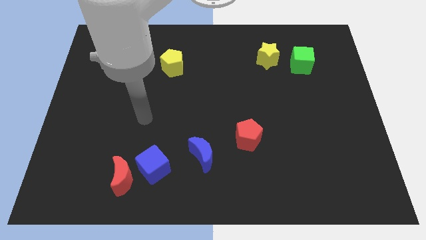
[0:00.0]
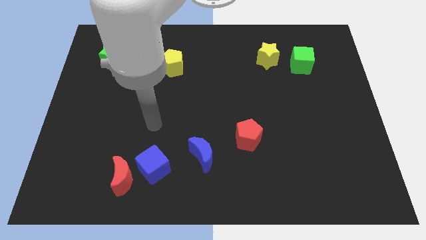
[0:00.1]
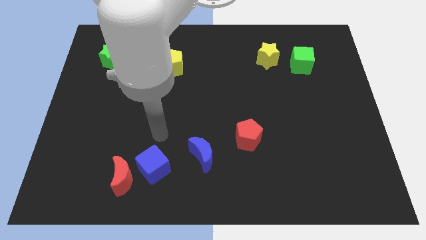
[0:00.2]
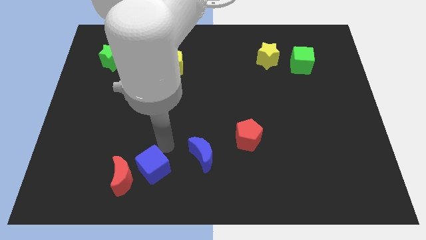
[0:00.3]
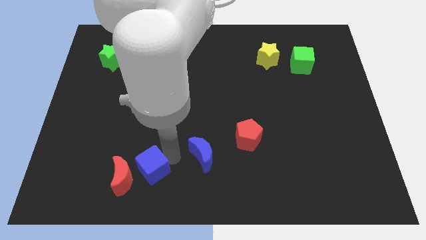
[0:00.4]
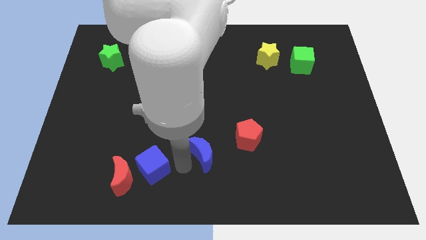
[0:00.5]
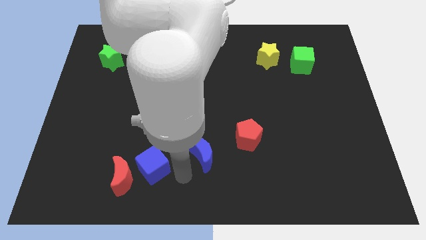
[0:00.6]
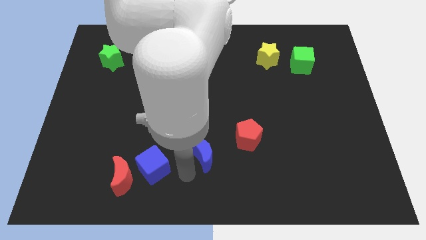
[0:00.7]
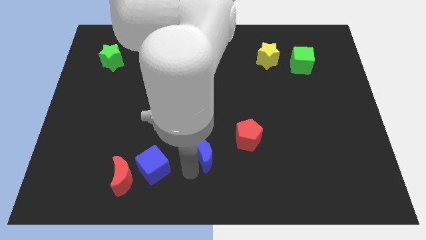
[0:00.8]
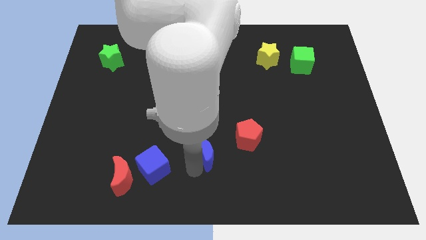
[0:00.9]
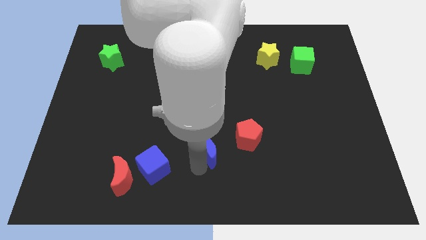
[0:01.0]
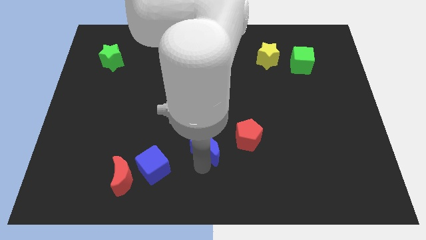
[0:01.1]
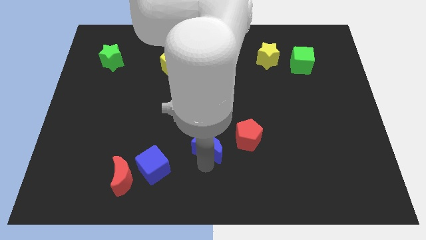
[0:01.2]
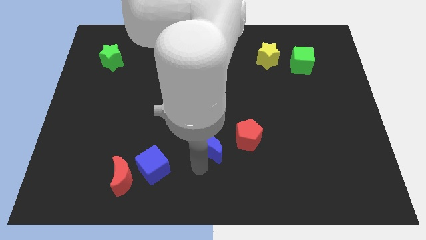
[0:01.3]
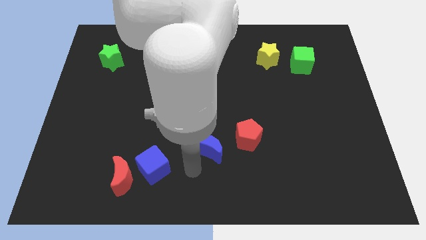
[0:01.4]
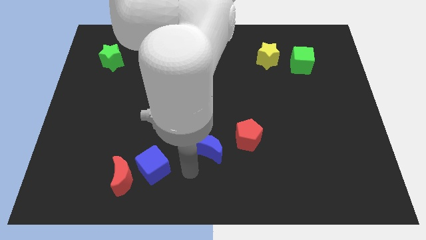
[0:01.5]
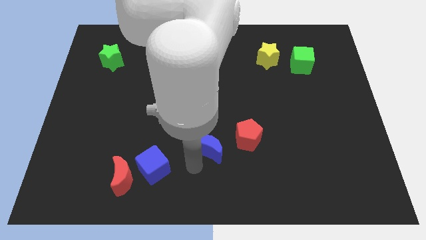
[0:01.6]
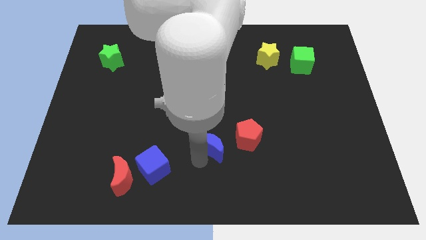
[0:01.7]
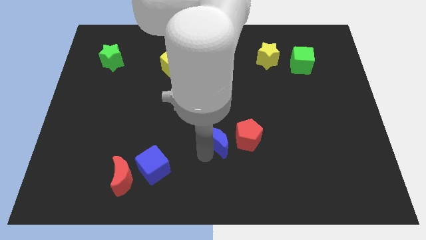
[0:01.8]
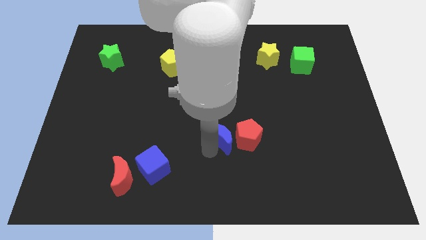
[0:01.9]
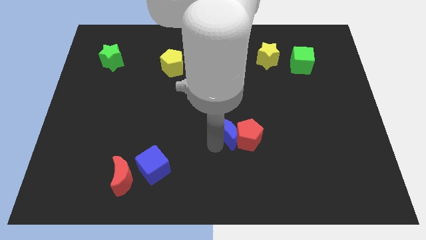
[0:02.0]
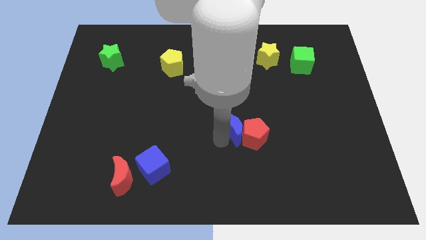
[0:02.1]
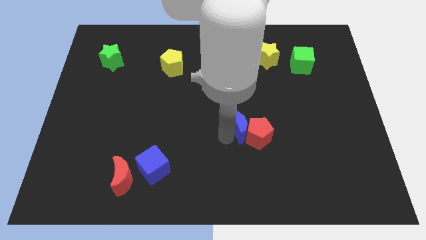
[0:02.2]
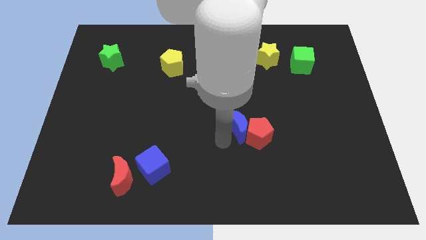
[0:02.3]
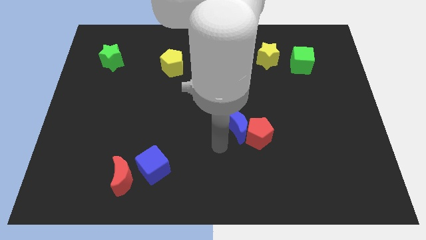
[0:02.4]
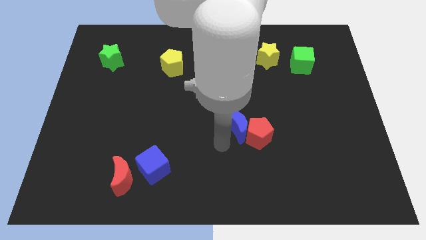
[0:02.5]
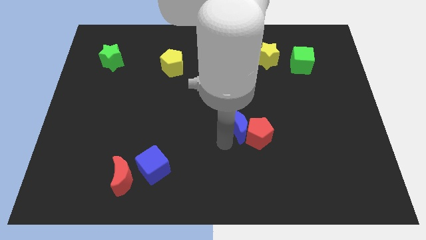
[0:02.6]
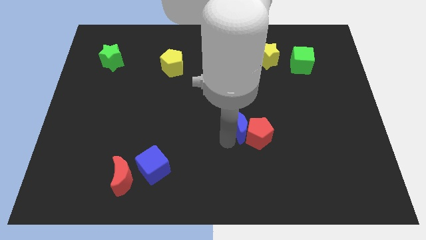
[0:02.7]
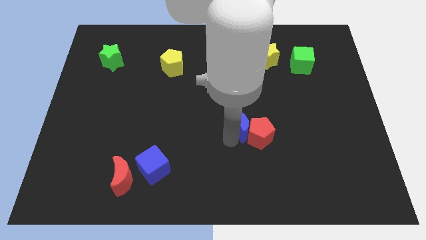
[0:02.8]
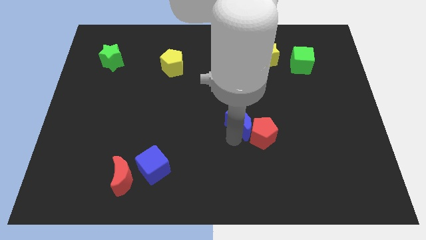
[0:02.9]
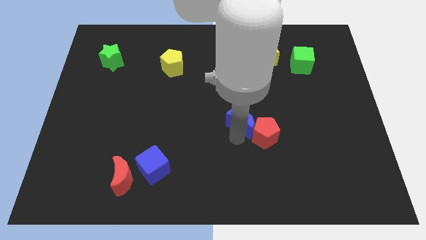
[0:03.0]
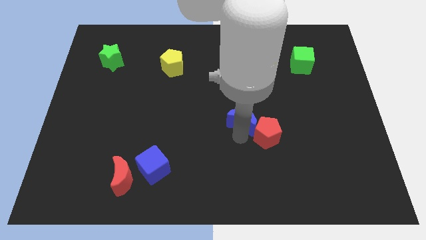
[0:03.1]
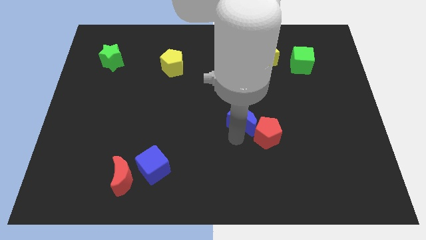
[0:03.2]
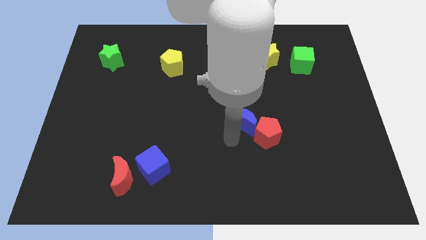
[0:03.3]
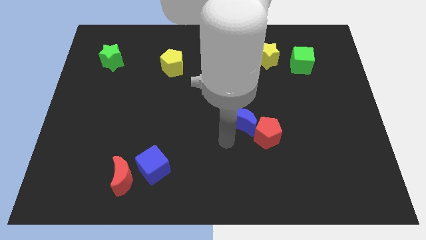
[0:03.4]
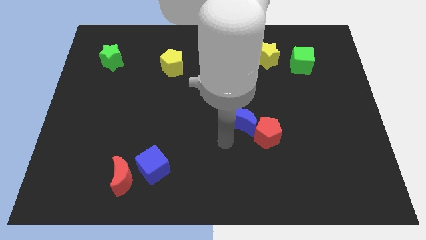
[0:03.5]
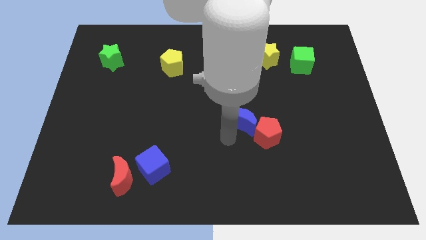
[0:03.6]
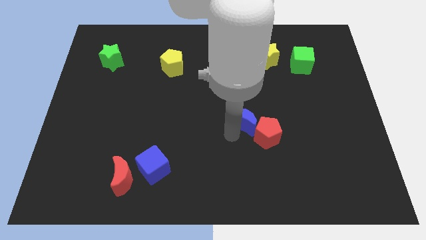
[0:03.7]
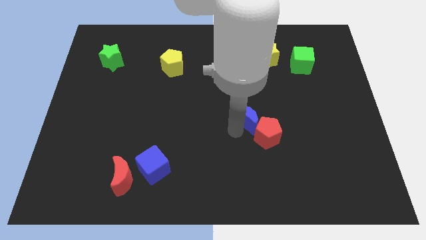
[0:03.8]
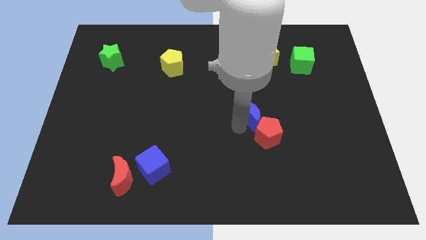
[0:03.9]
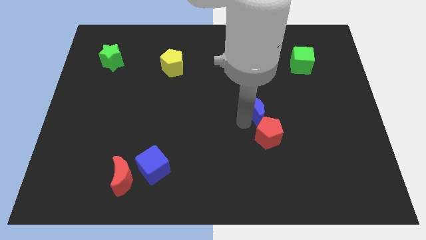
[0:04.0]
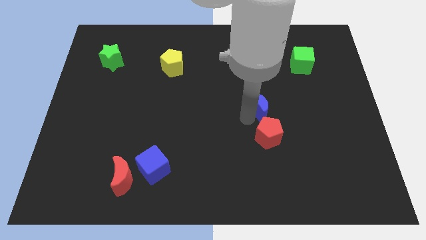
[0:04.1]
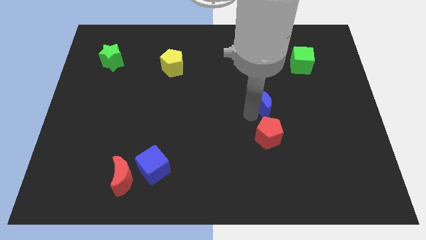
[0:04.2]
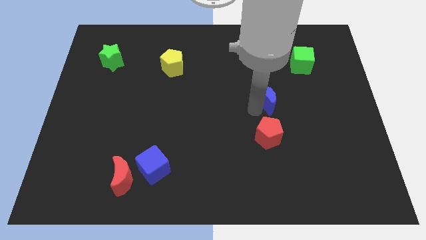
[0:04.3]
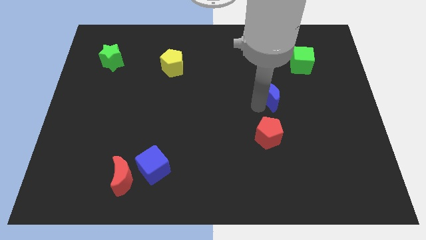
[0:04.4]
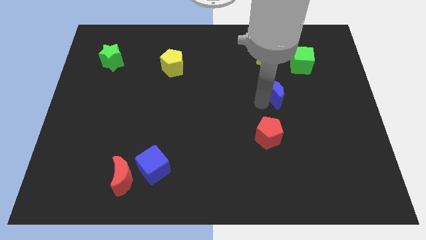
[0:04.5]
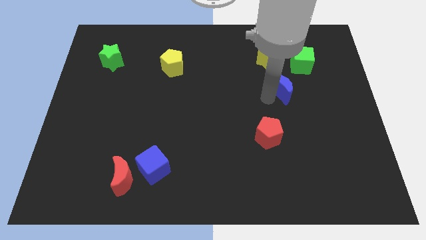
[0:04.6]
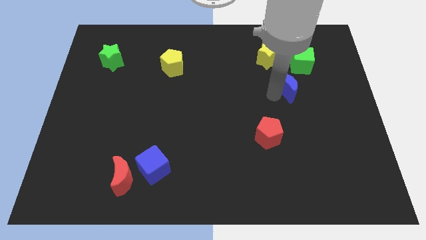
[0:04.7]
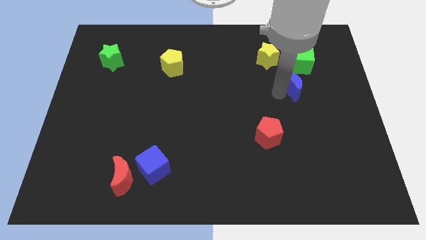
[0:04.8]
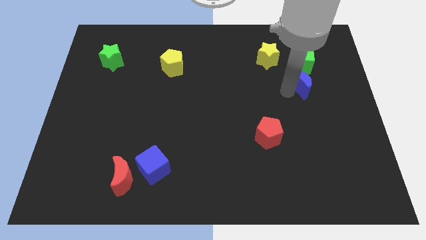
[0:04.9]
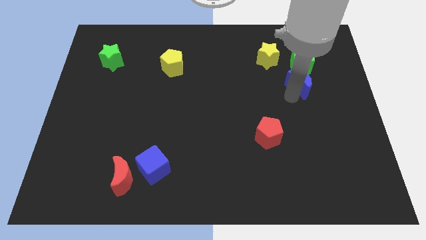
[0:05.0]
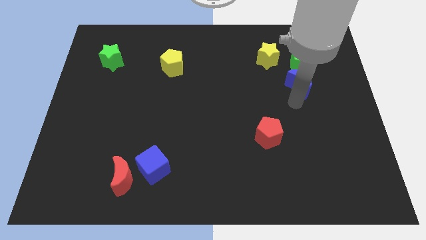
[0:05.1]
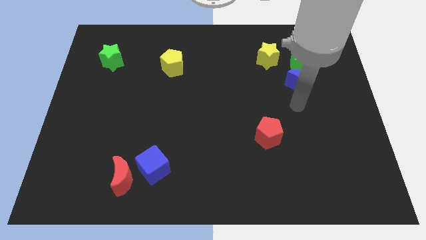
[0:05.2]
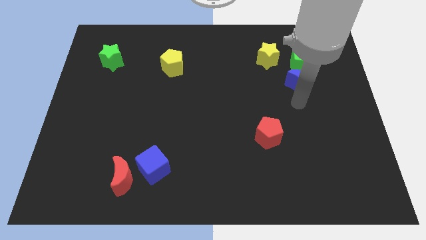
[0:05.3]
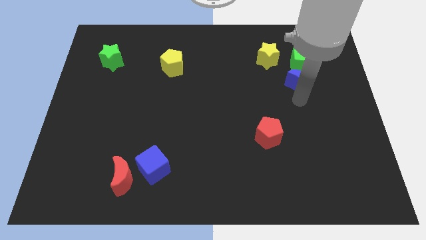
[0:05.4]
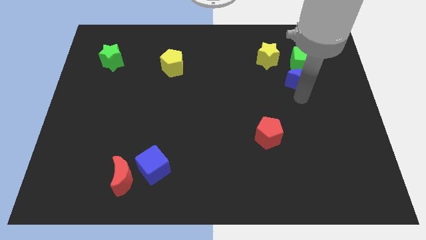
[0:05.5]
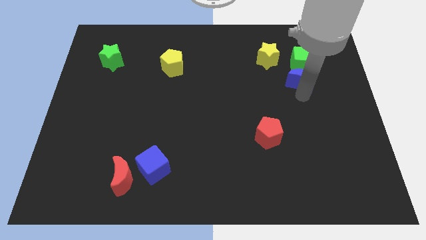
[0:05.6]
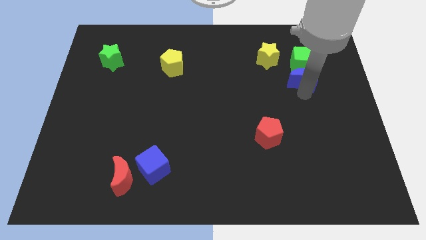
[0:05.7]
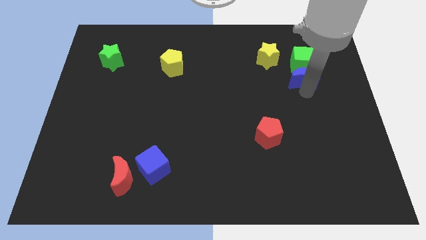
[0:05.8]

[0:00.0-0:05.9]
move the blue moon towards the green cube

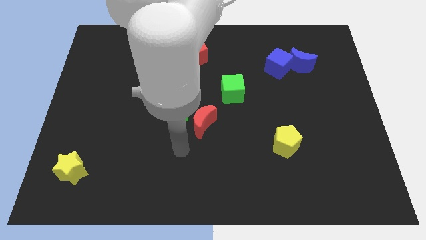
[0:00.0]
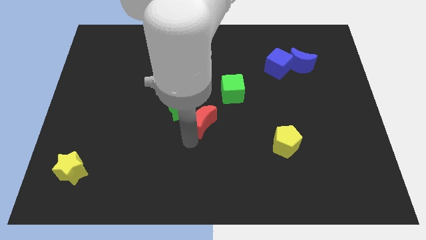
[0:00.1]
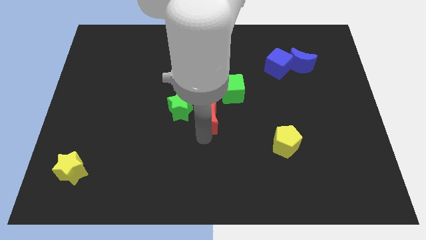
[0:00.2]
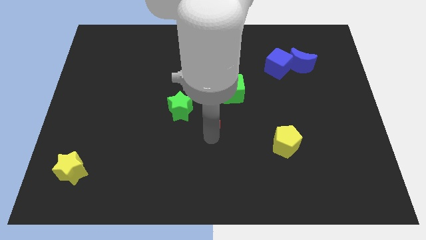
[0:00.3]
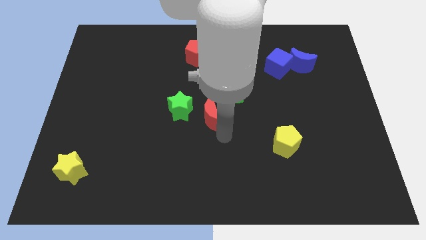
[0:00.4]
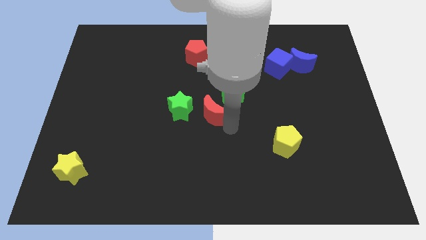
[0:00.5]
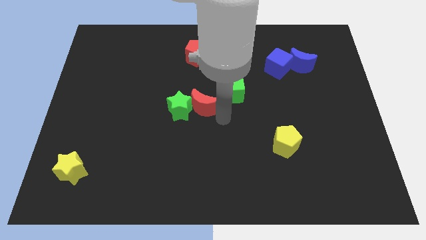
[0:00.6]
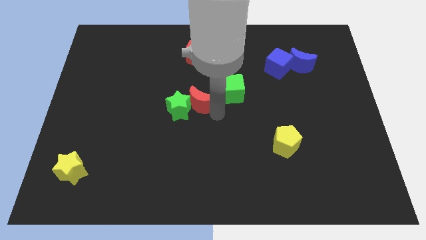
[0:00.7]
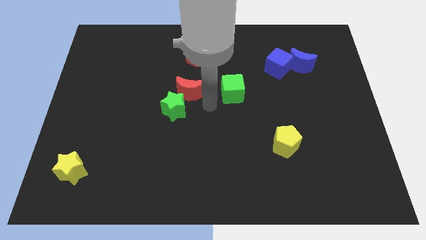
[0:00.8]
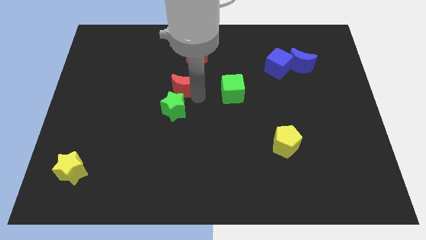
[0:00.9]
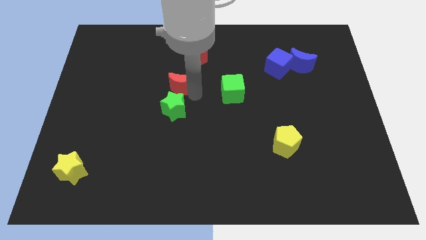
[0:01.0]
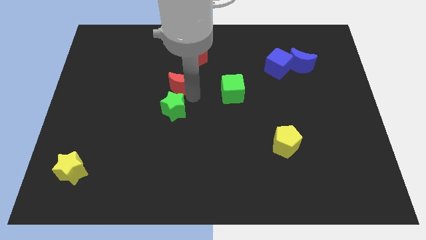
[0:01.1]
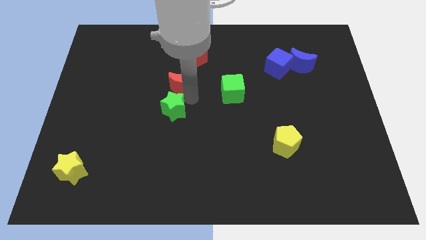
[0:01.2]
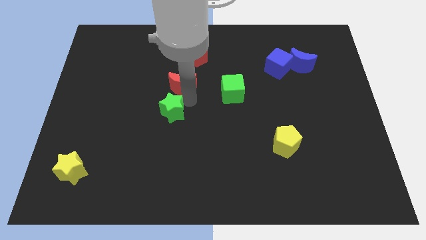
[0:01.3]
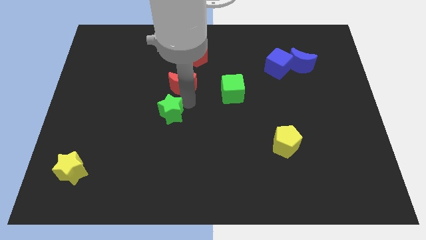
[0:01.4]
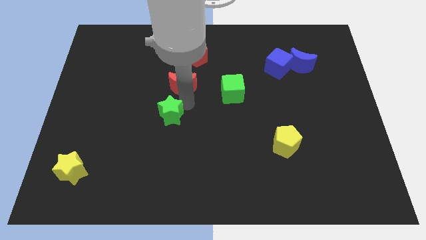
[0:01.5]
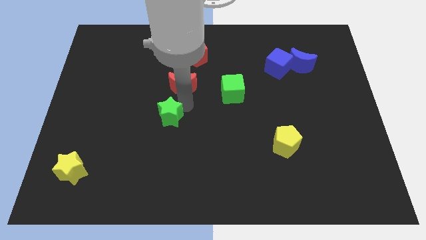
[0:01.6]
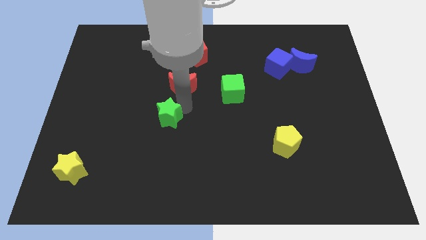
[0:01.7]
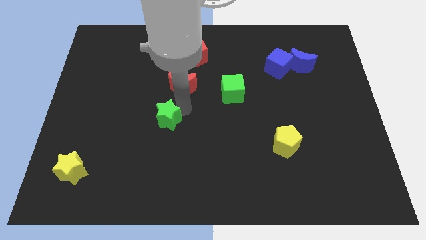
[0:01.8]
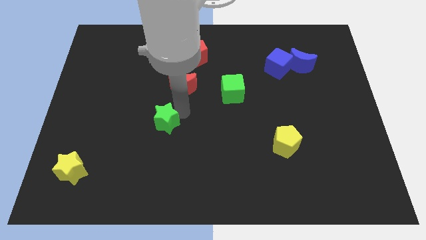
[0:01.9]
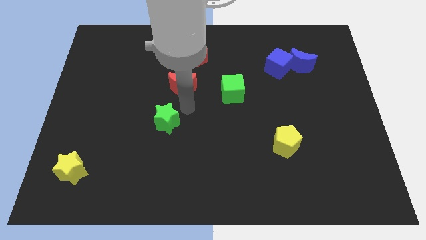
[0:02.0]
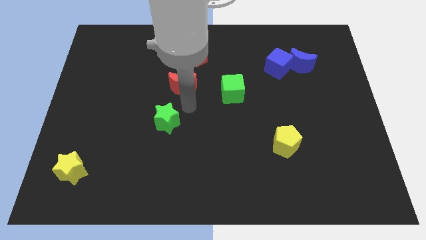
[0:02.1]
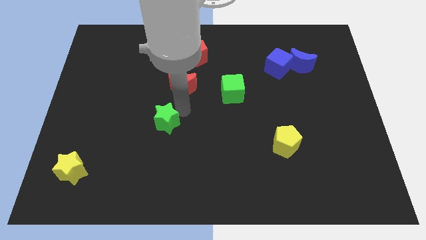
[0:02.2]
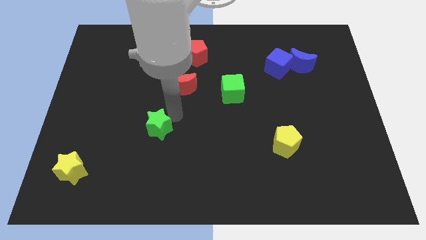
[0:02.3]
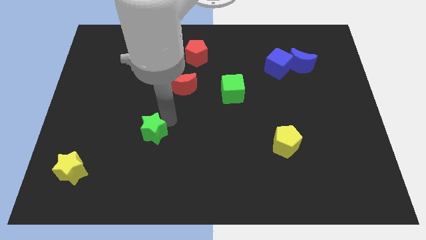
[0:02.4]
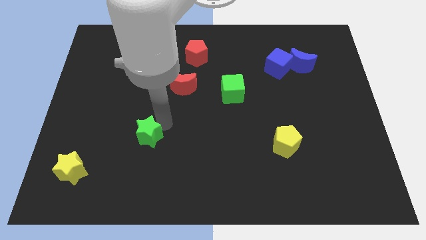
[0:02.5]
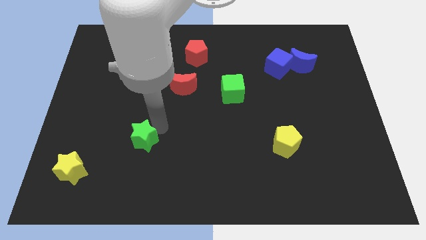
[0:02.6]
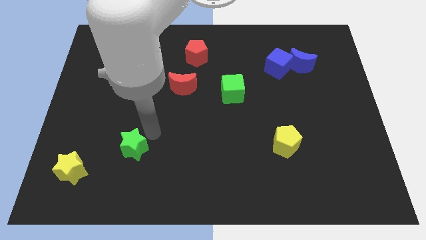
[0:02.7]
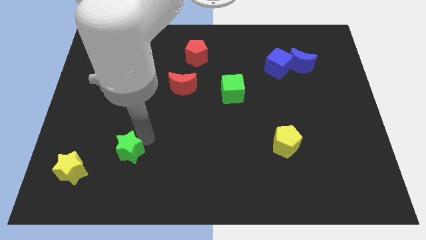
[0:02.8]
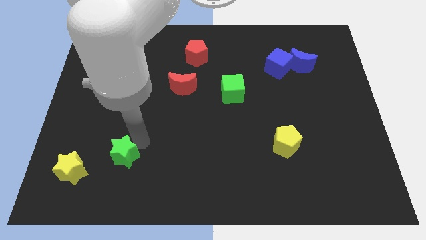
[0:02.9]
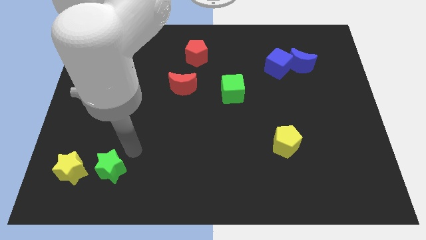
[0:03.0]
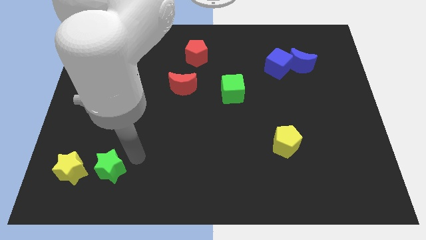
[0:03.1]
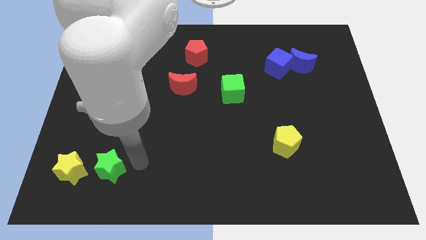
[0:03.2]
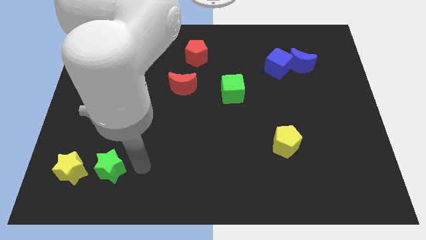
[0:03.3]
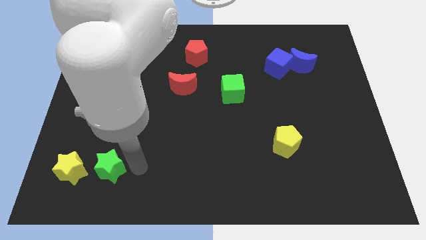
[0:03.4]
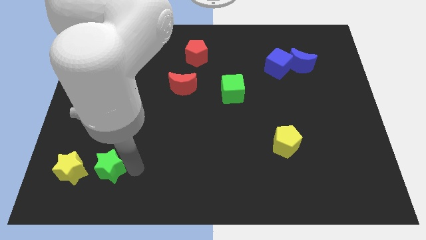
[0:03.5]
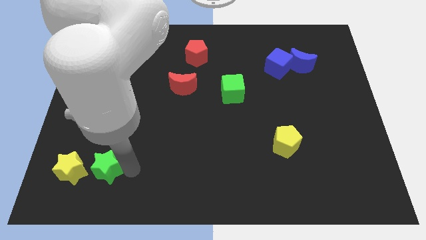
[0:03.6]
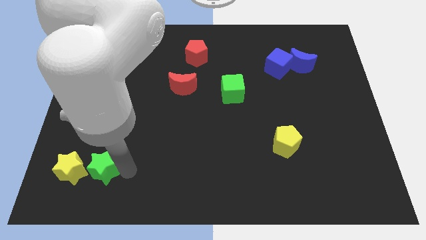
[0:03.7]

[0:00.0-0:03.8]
put the green star to the yellow star
